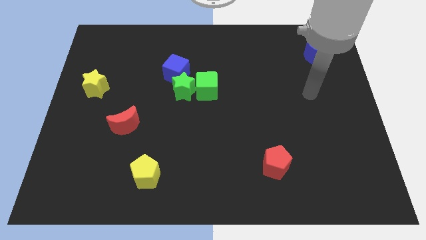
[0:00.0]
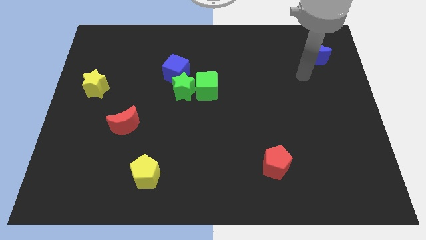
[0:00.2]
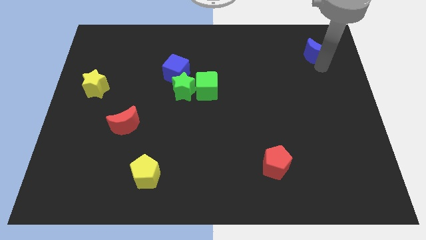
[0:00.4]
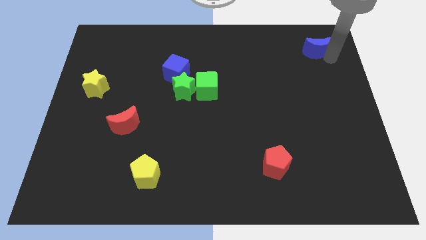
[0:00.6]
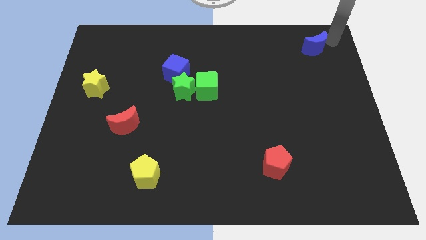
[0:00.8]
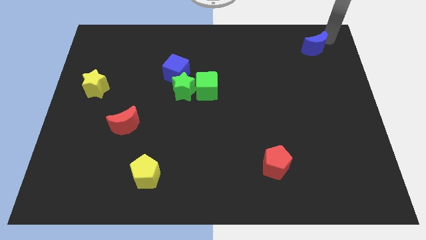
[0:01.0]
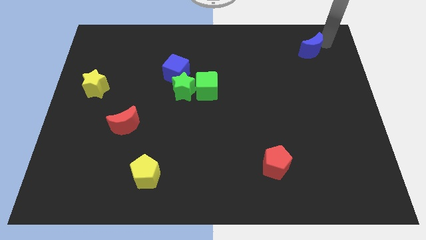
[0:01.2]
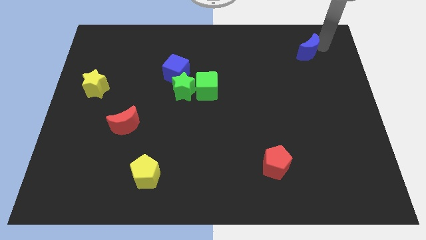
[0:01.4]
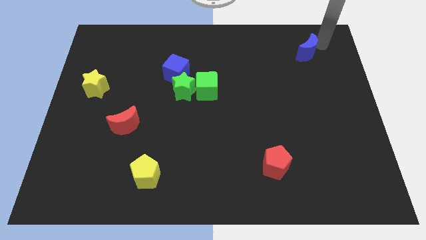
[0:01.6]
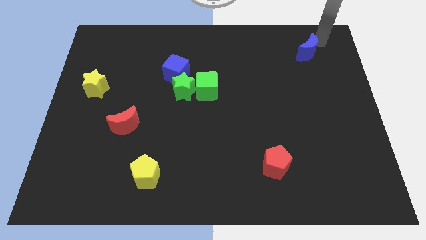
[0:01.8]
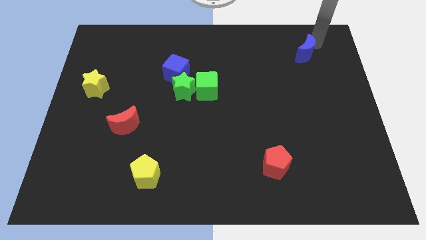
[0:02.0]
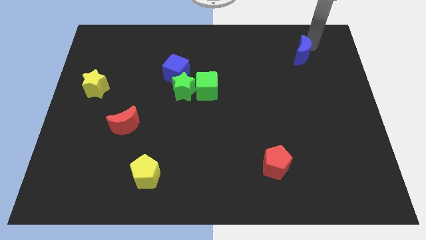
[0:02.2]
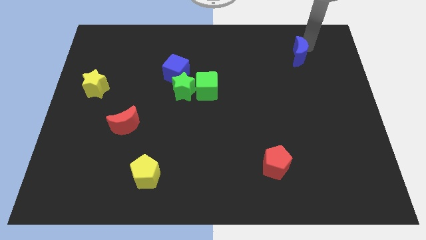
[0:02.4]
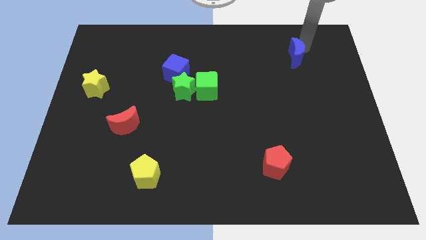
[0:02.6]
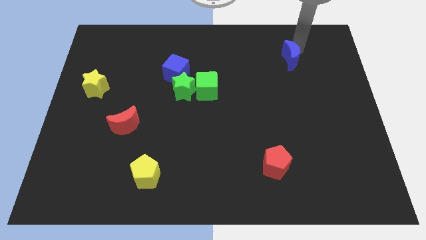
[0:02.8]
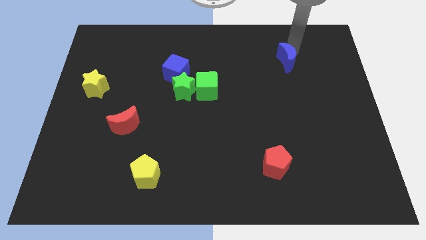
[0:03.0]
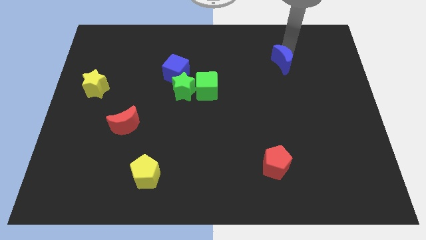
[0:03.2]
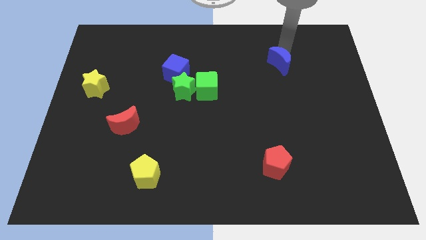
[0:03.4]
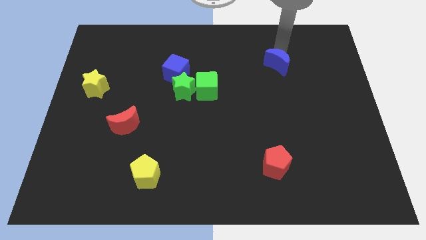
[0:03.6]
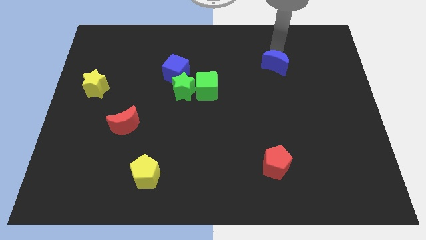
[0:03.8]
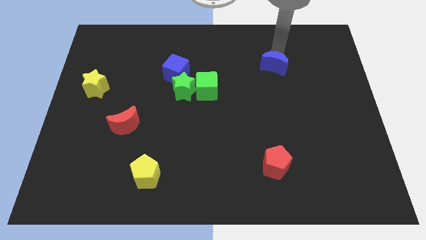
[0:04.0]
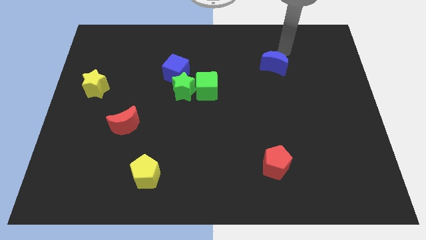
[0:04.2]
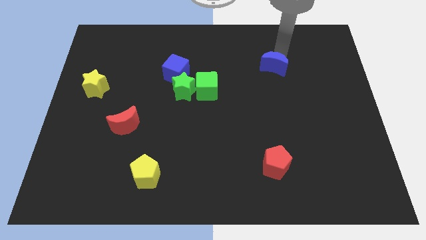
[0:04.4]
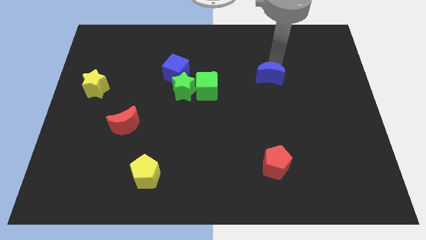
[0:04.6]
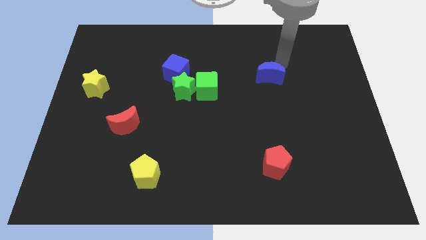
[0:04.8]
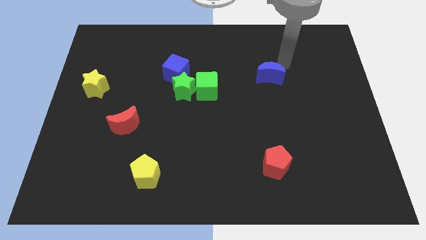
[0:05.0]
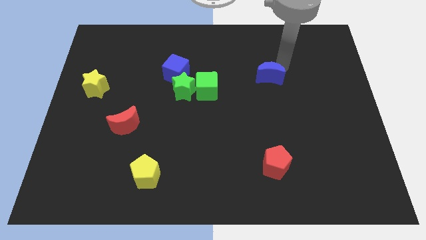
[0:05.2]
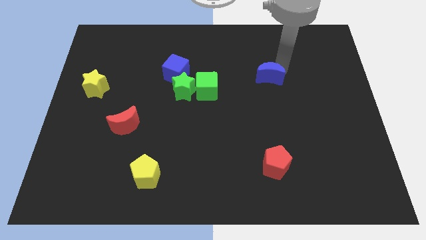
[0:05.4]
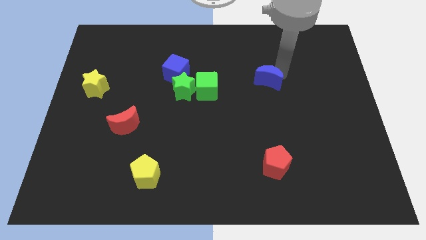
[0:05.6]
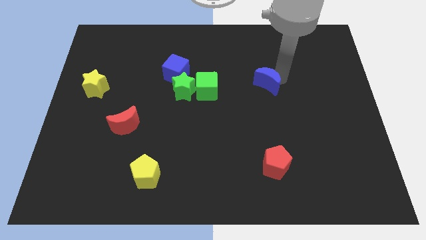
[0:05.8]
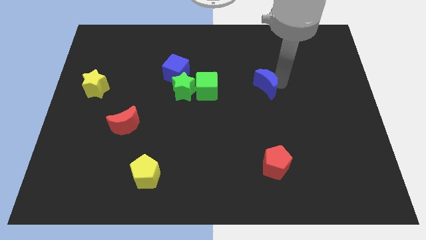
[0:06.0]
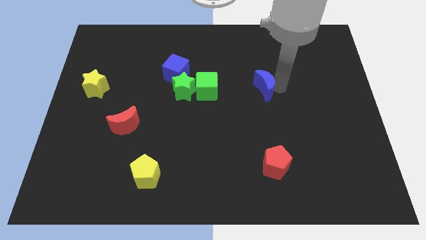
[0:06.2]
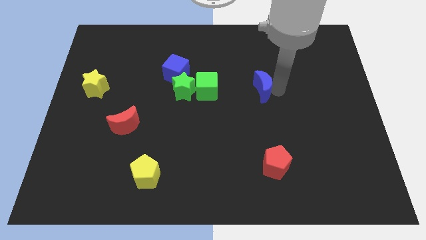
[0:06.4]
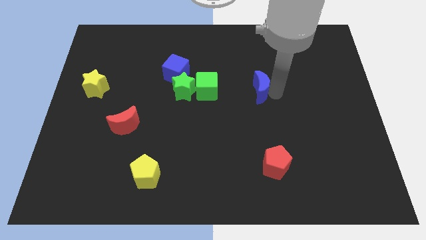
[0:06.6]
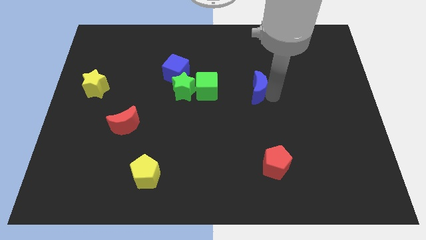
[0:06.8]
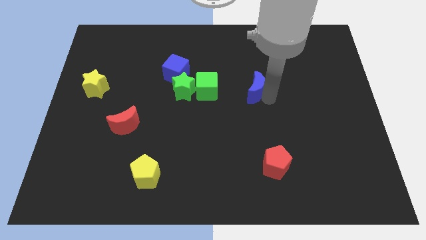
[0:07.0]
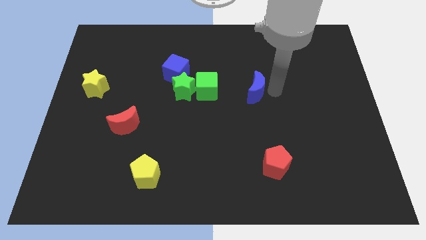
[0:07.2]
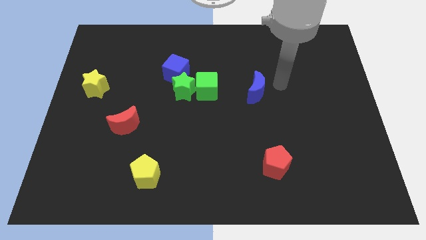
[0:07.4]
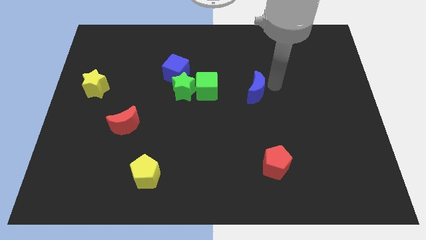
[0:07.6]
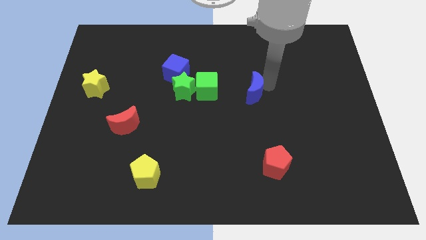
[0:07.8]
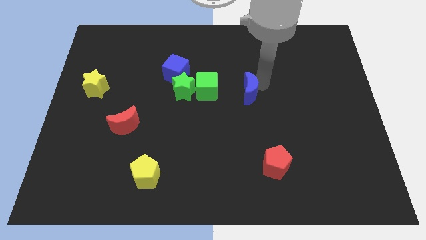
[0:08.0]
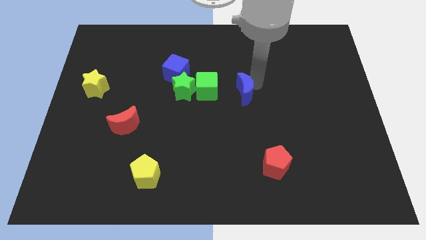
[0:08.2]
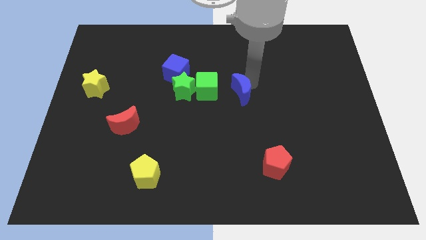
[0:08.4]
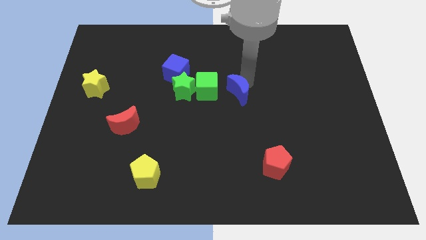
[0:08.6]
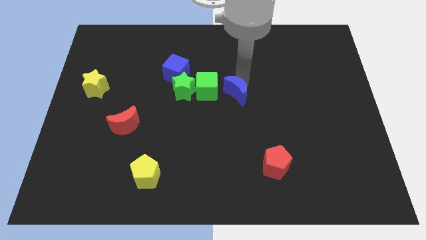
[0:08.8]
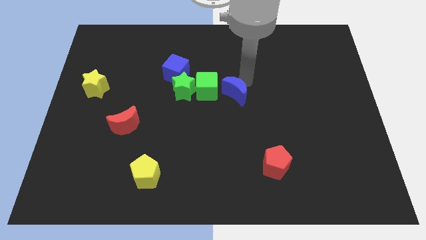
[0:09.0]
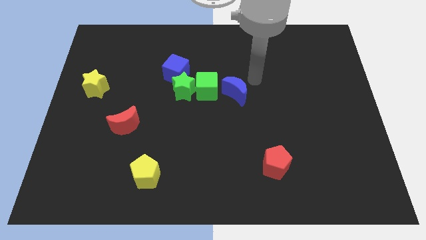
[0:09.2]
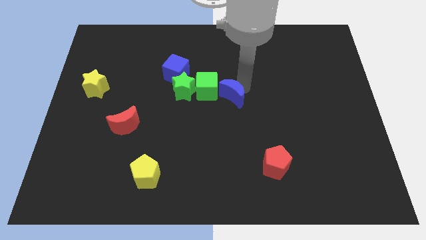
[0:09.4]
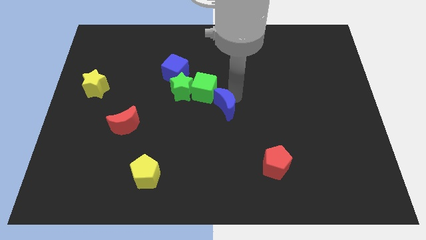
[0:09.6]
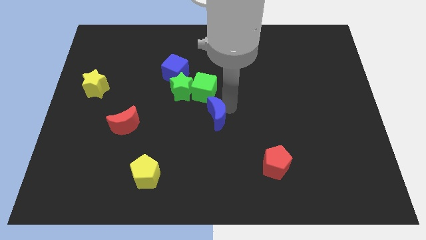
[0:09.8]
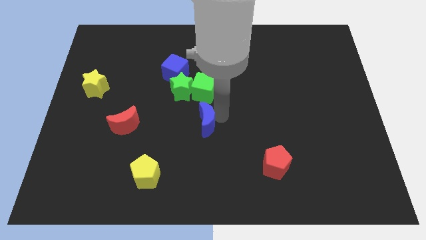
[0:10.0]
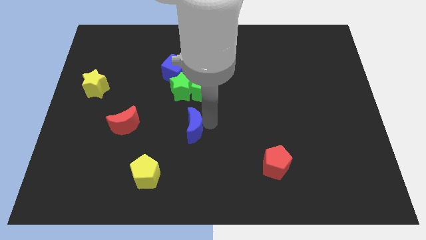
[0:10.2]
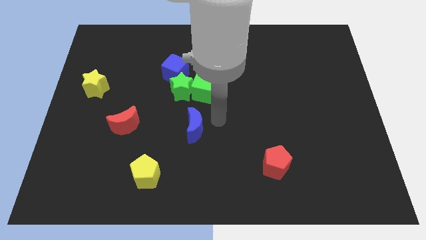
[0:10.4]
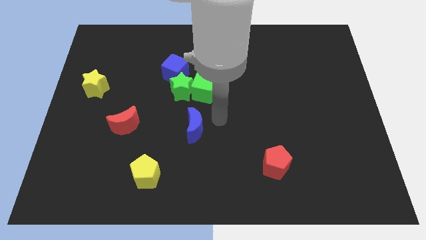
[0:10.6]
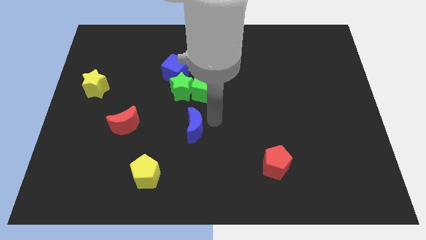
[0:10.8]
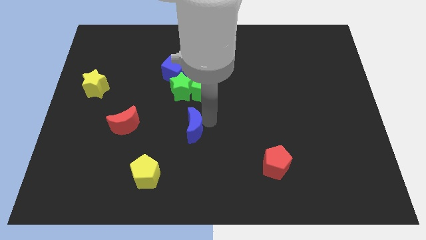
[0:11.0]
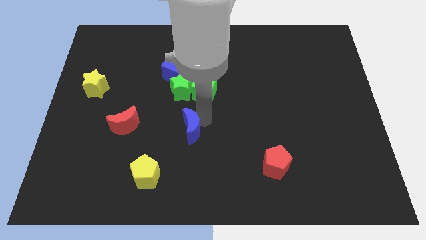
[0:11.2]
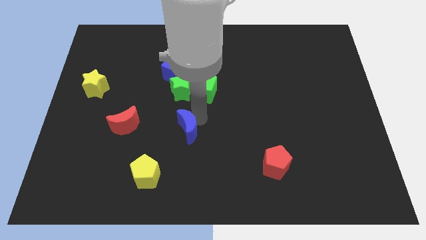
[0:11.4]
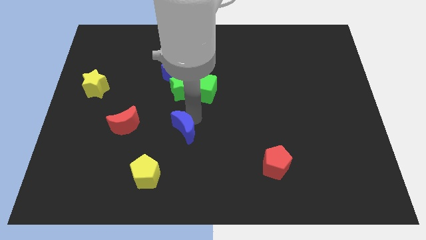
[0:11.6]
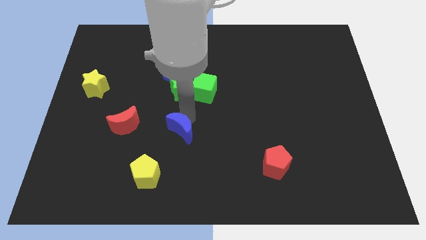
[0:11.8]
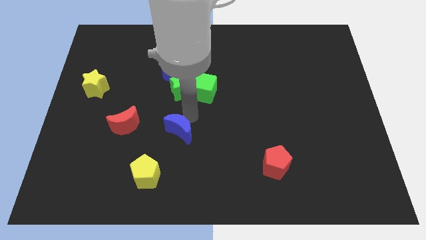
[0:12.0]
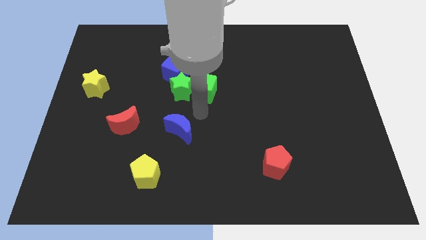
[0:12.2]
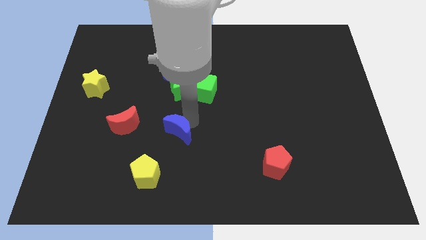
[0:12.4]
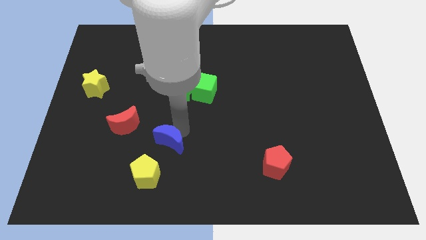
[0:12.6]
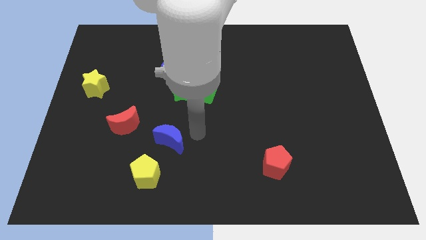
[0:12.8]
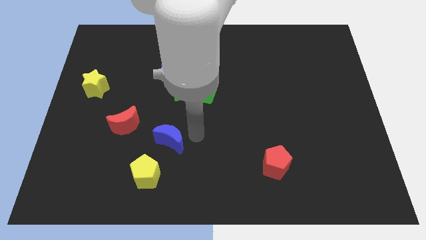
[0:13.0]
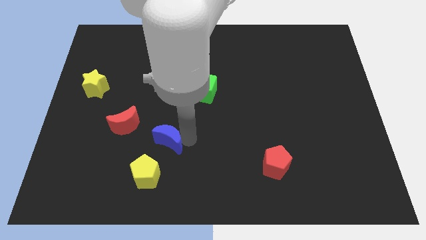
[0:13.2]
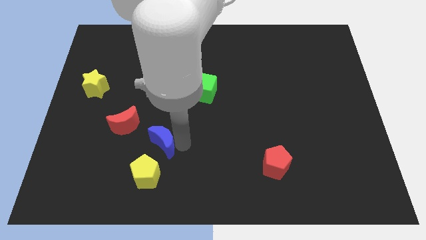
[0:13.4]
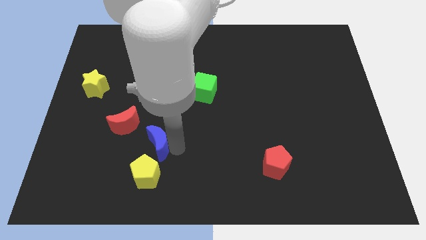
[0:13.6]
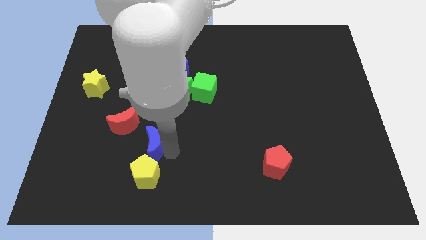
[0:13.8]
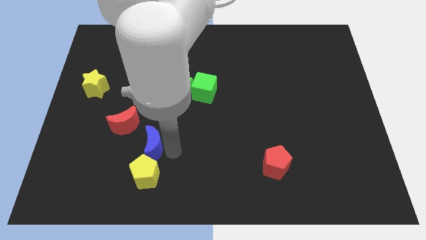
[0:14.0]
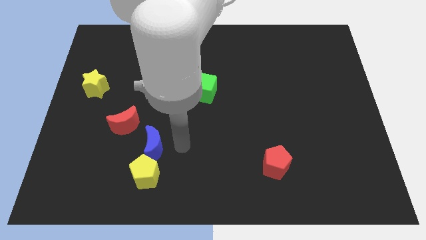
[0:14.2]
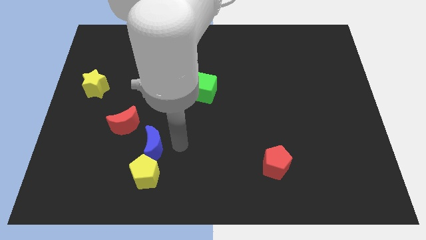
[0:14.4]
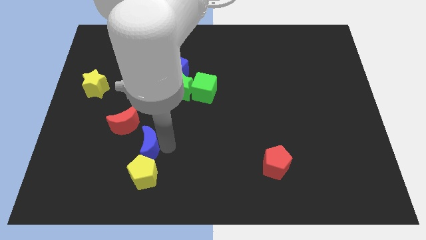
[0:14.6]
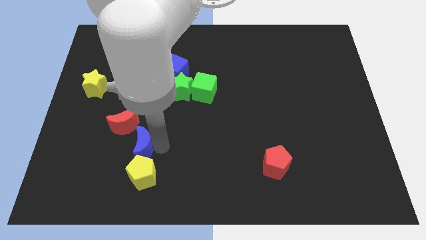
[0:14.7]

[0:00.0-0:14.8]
put the blue moon to the bottom side of the red moon

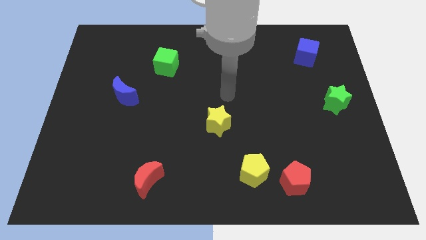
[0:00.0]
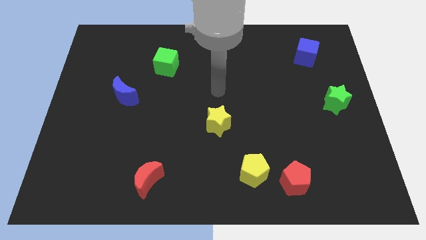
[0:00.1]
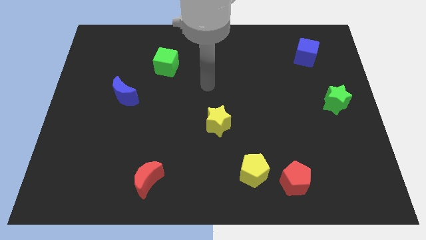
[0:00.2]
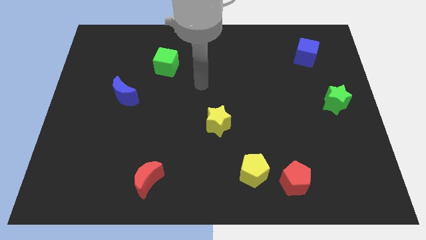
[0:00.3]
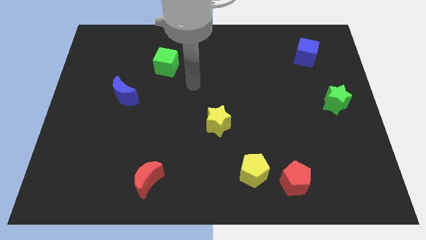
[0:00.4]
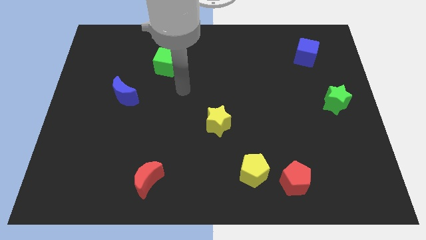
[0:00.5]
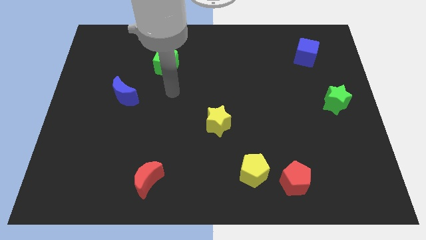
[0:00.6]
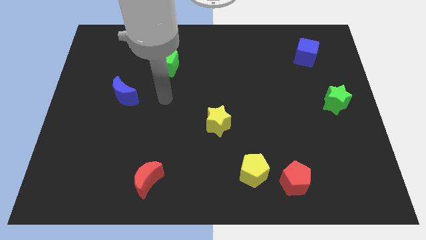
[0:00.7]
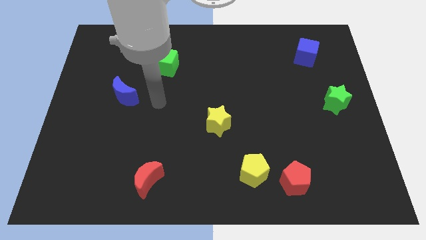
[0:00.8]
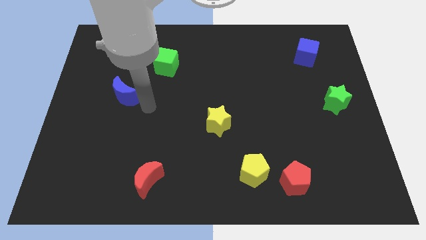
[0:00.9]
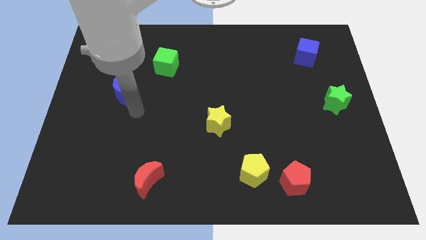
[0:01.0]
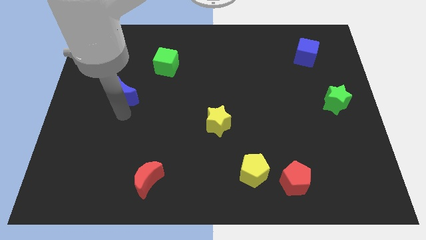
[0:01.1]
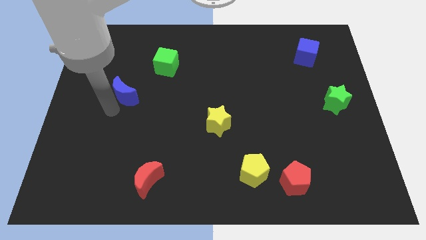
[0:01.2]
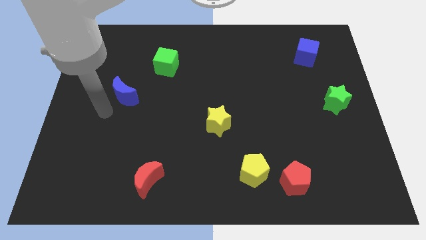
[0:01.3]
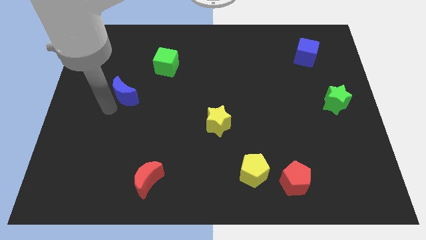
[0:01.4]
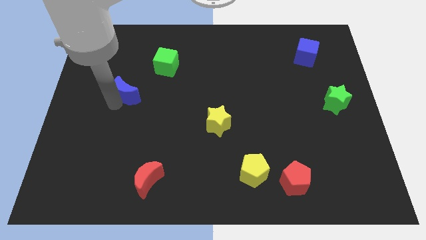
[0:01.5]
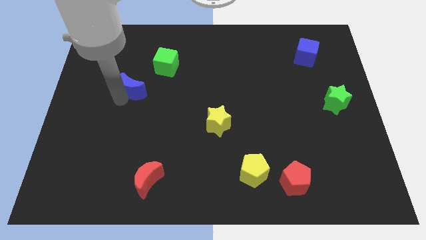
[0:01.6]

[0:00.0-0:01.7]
slide the blue moon to the bottom left side of the green cube
